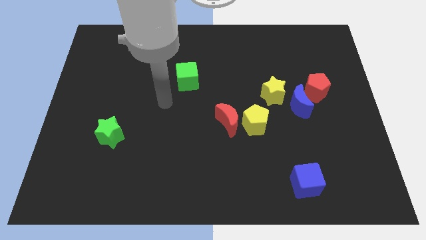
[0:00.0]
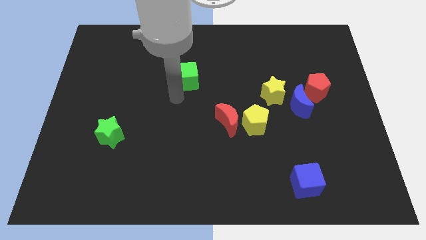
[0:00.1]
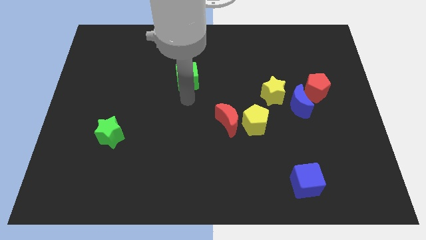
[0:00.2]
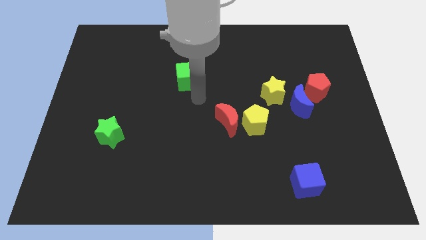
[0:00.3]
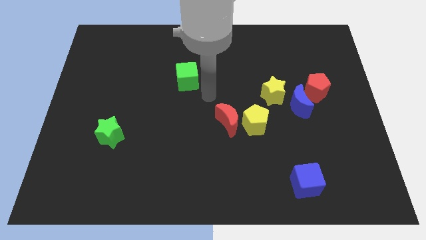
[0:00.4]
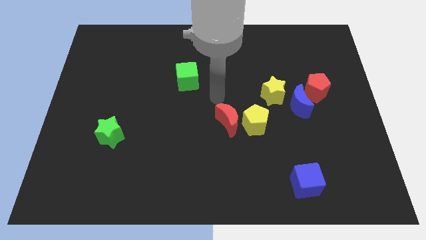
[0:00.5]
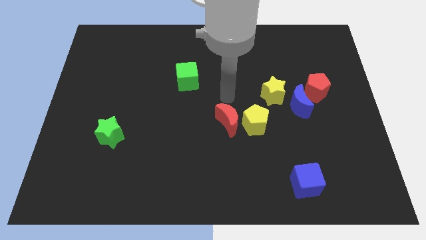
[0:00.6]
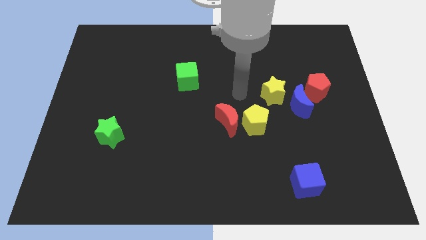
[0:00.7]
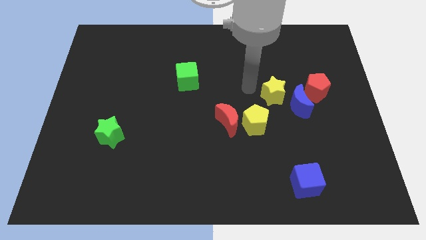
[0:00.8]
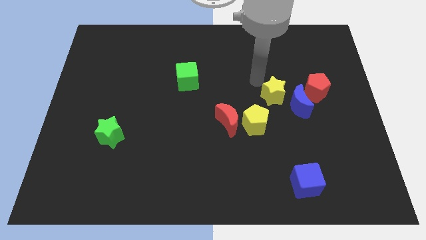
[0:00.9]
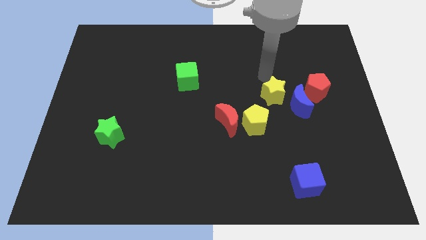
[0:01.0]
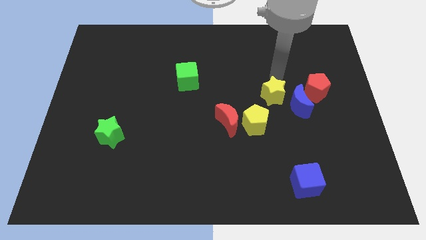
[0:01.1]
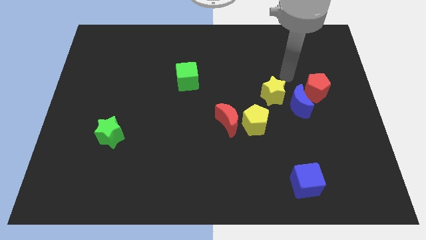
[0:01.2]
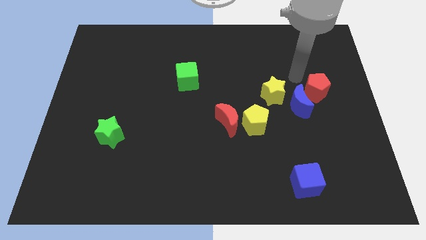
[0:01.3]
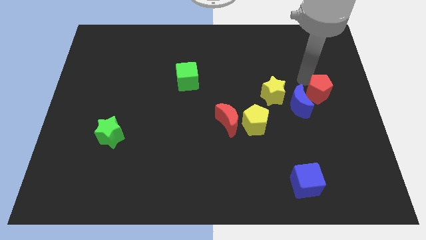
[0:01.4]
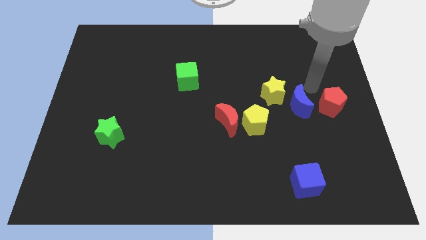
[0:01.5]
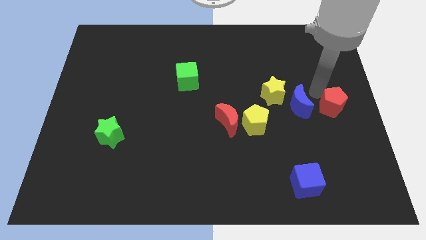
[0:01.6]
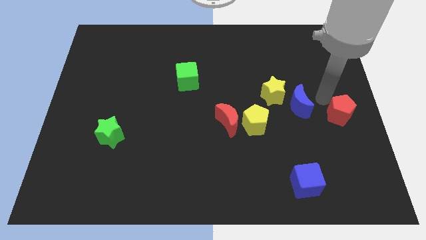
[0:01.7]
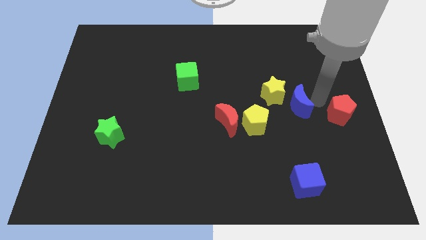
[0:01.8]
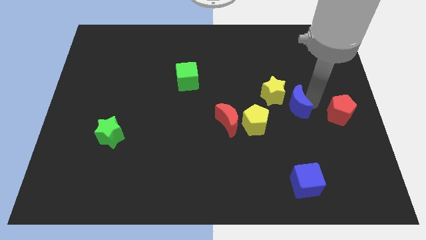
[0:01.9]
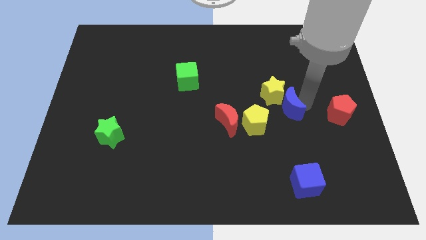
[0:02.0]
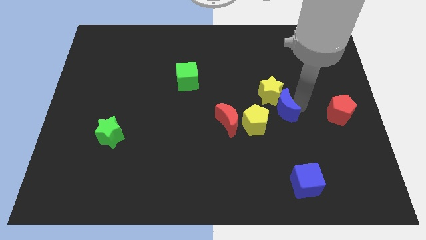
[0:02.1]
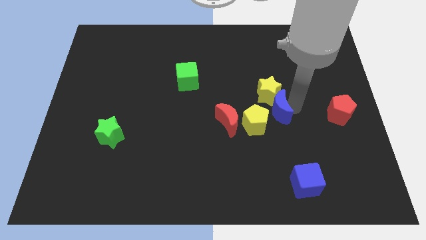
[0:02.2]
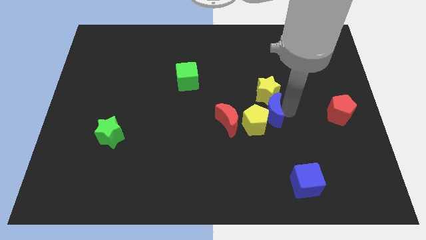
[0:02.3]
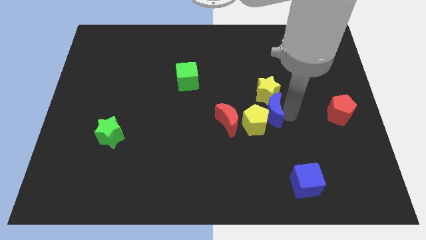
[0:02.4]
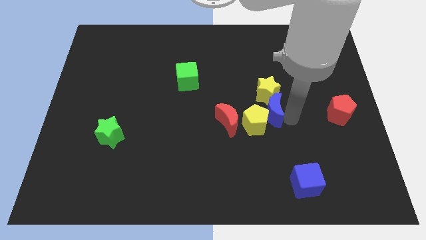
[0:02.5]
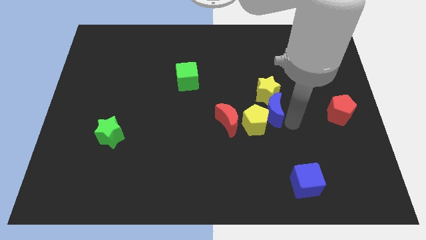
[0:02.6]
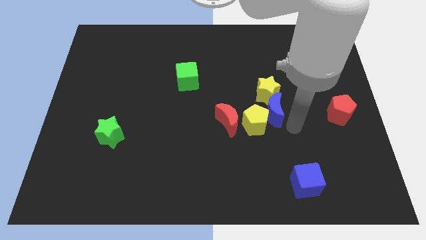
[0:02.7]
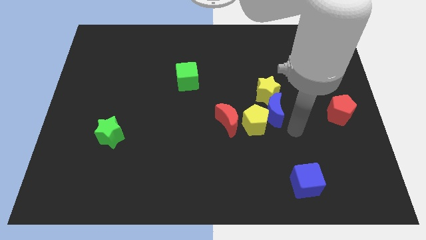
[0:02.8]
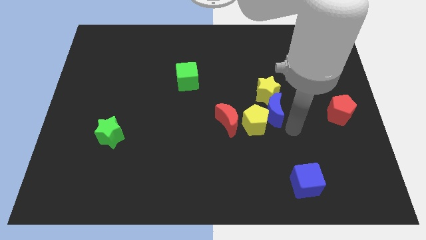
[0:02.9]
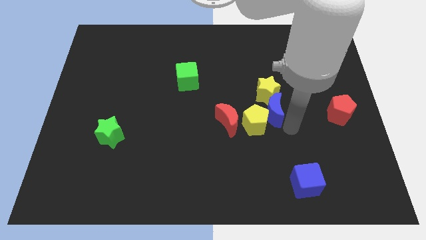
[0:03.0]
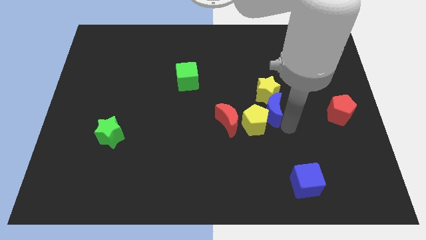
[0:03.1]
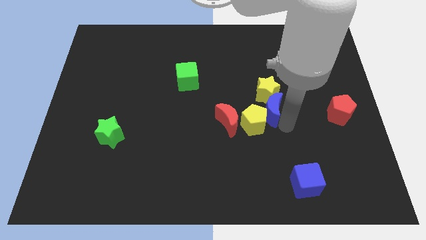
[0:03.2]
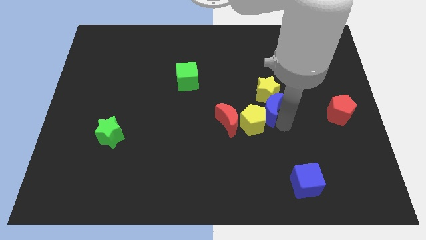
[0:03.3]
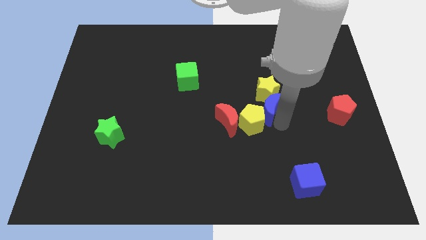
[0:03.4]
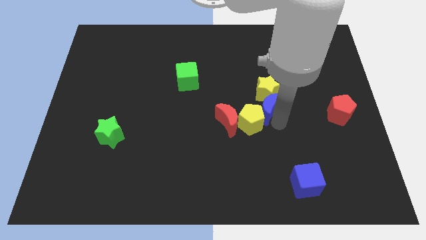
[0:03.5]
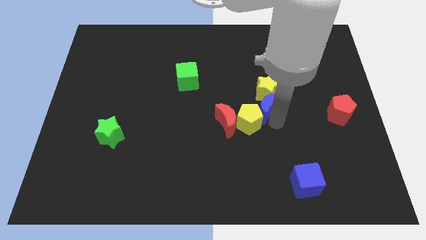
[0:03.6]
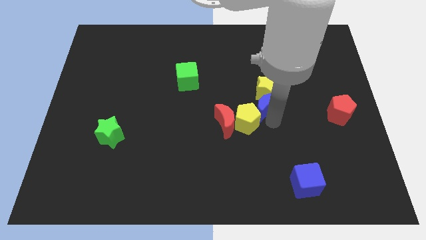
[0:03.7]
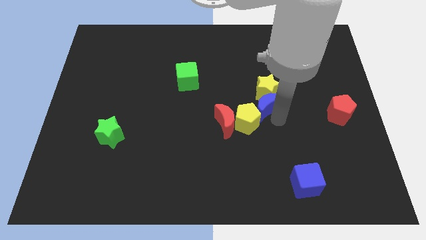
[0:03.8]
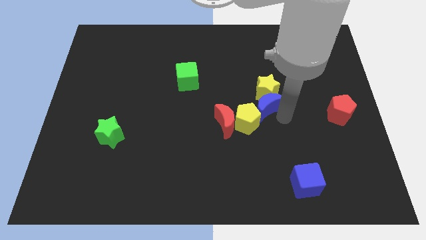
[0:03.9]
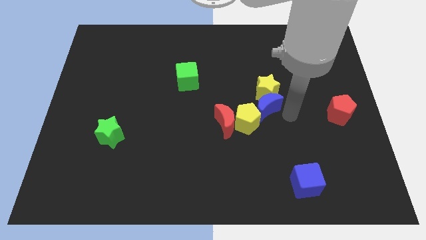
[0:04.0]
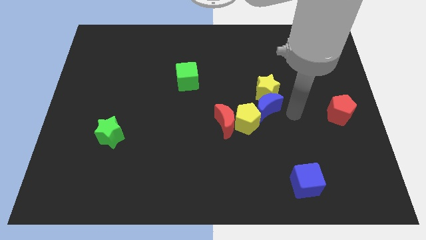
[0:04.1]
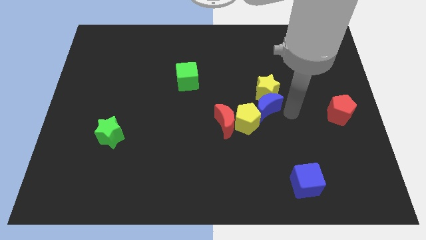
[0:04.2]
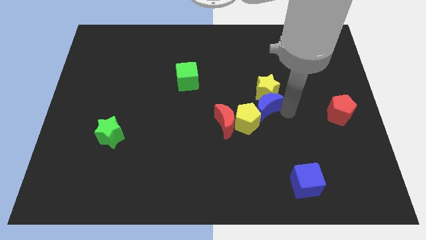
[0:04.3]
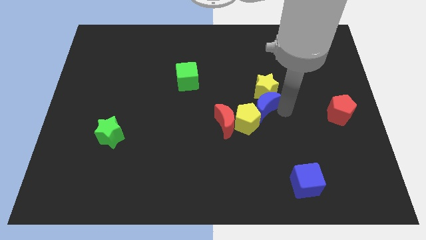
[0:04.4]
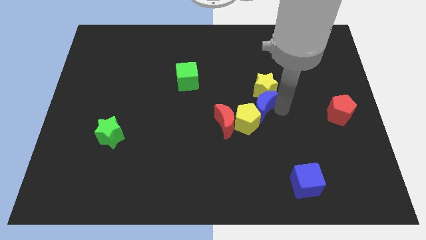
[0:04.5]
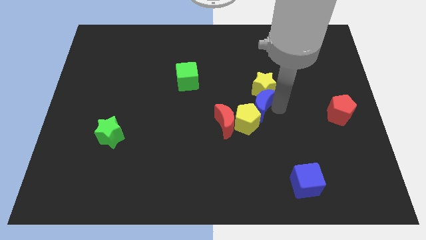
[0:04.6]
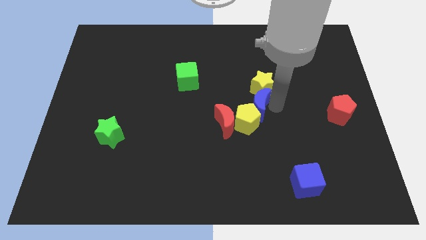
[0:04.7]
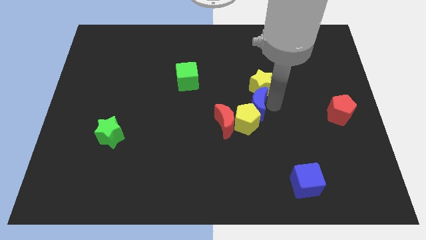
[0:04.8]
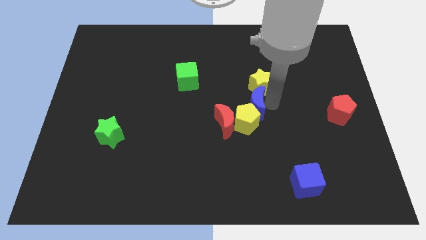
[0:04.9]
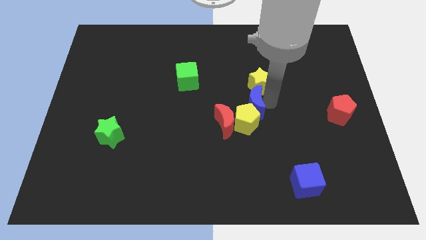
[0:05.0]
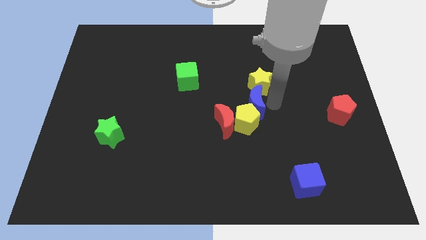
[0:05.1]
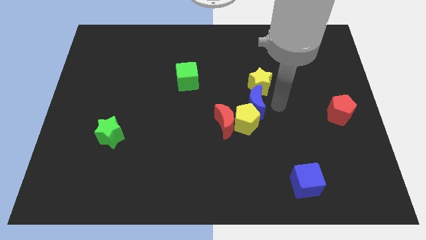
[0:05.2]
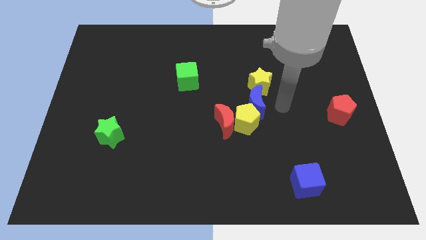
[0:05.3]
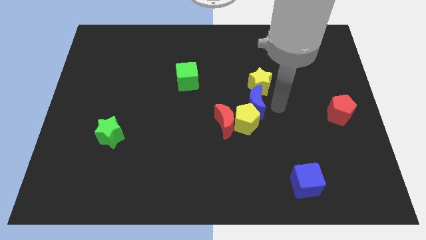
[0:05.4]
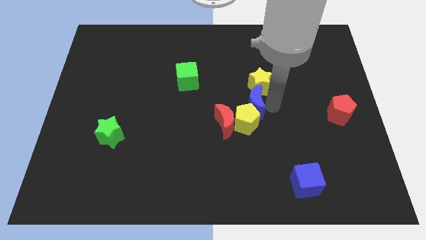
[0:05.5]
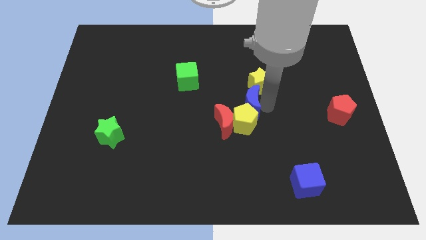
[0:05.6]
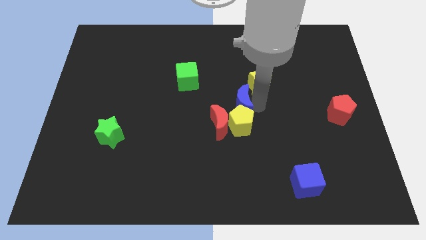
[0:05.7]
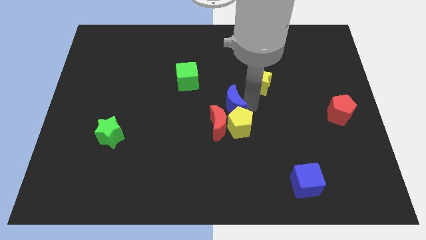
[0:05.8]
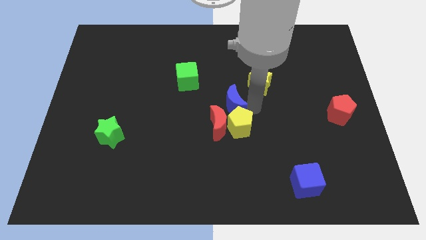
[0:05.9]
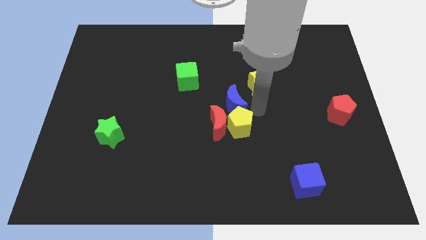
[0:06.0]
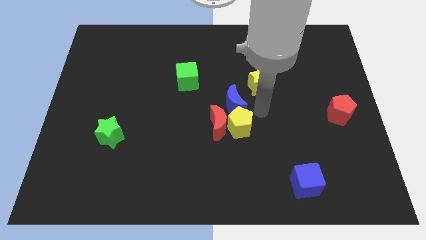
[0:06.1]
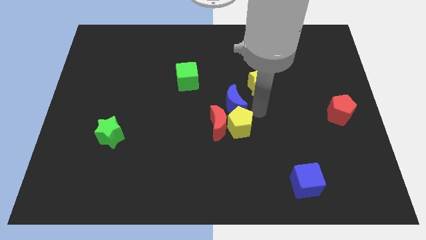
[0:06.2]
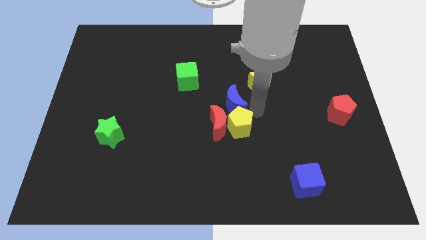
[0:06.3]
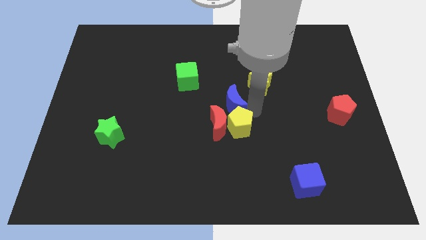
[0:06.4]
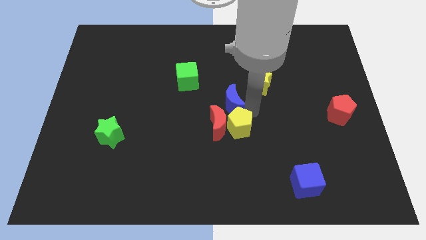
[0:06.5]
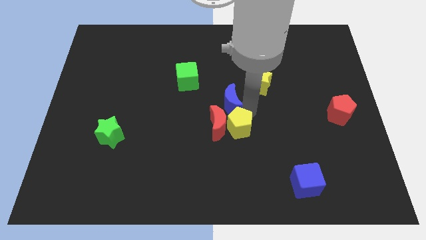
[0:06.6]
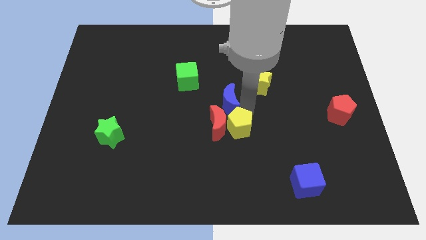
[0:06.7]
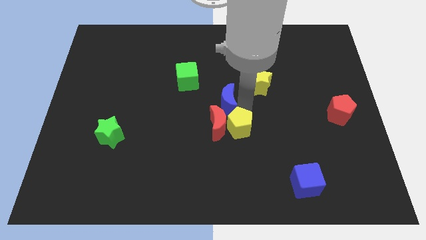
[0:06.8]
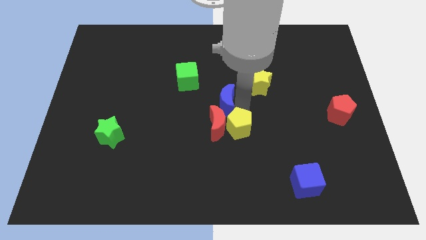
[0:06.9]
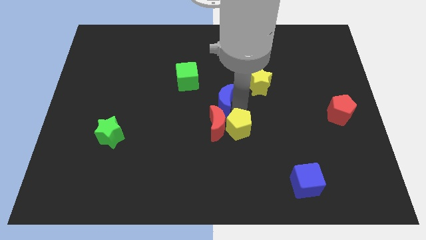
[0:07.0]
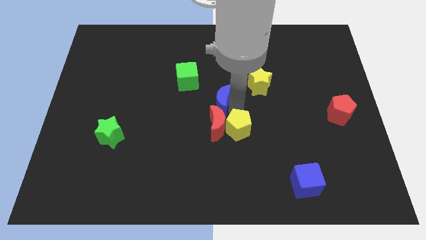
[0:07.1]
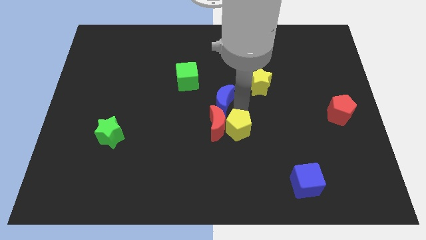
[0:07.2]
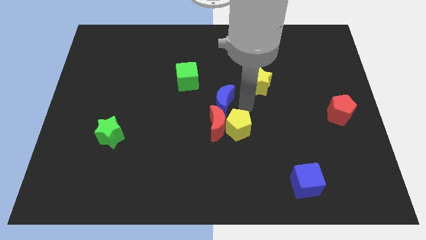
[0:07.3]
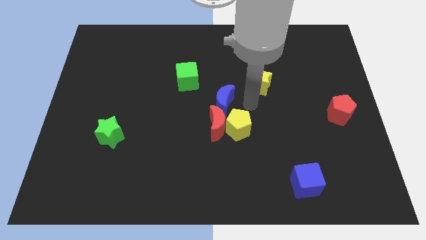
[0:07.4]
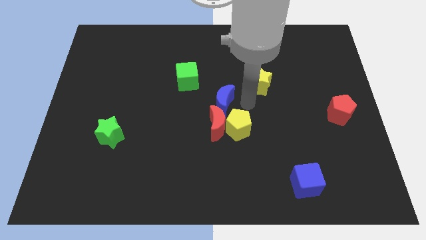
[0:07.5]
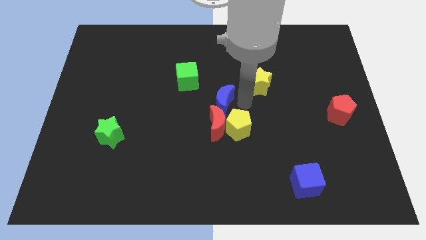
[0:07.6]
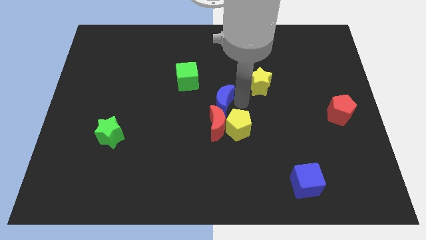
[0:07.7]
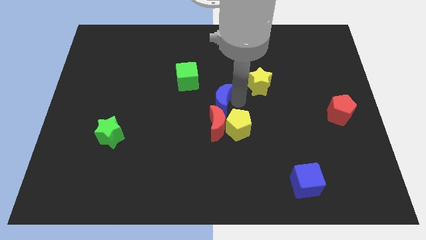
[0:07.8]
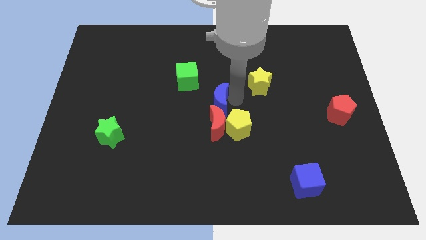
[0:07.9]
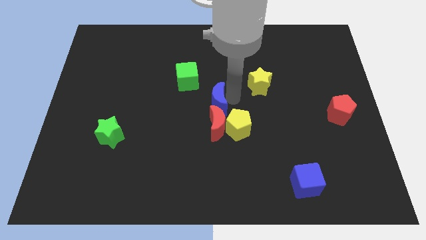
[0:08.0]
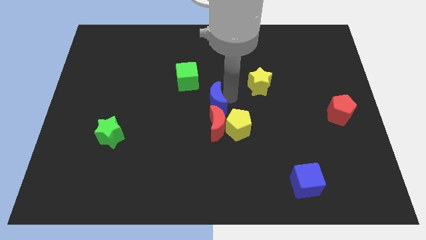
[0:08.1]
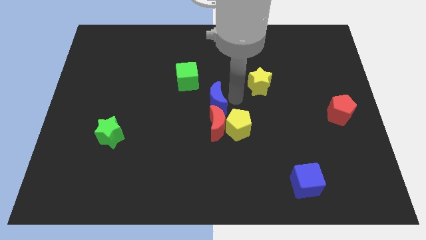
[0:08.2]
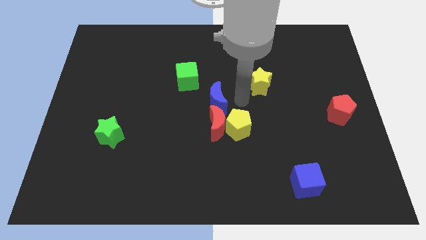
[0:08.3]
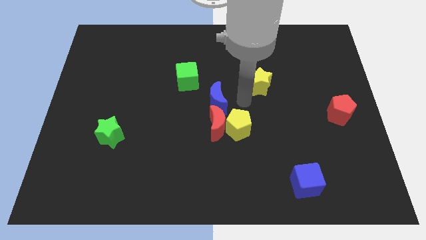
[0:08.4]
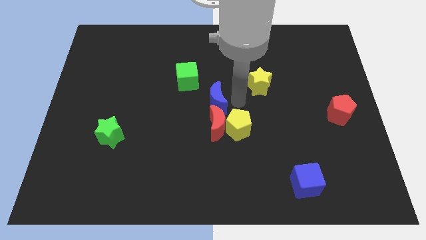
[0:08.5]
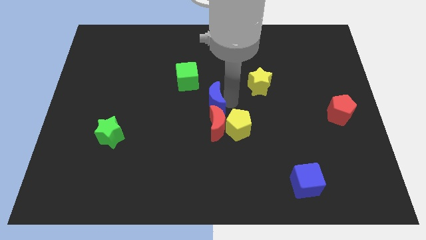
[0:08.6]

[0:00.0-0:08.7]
move the blue moon left
